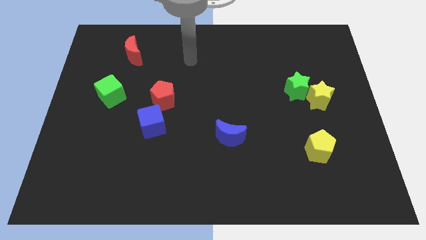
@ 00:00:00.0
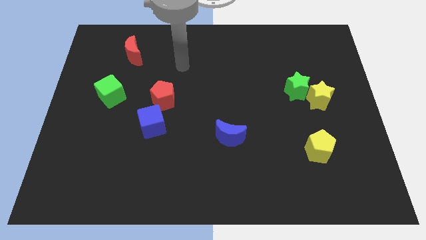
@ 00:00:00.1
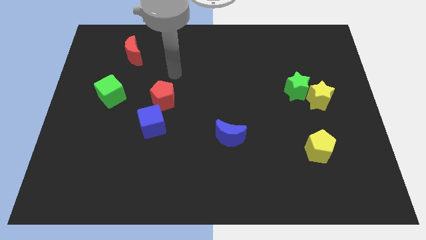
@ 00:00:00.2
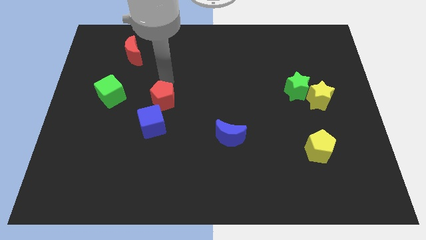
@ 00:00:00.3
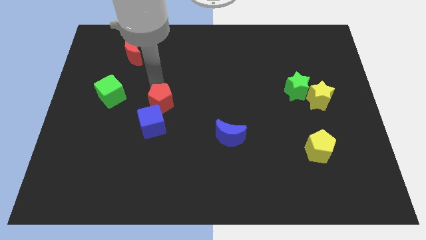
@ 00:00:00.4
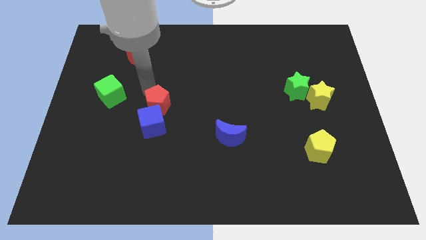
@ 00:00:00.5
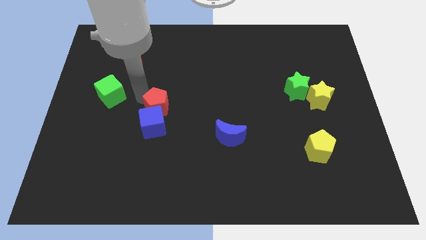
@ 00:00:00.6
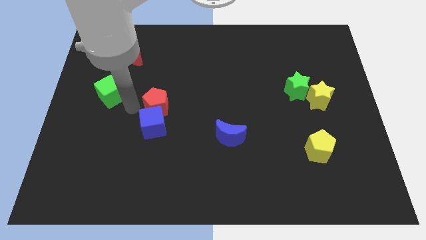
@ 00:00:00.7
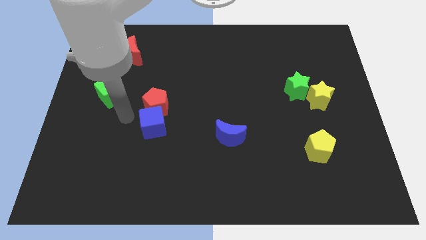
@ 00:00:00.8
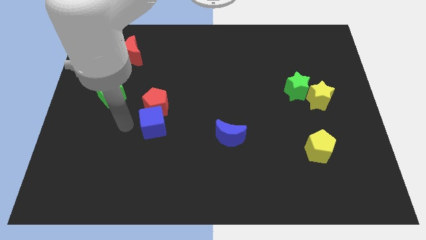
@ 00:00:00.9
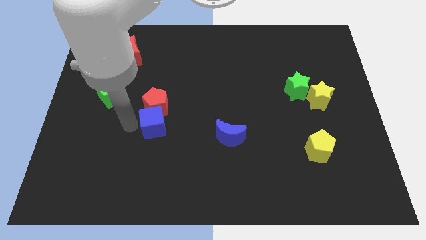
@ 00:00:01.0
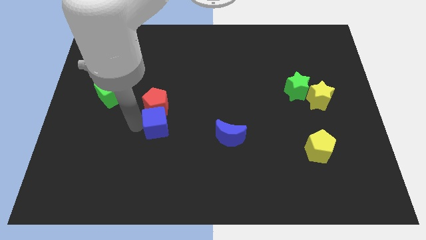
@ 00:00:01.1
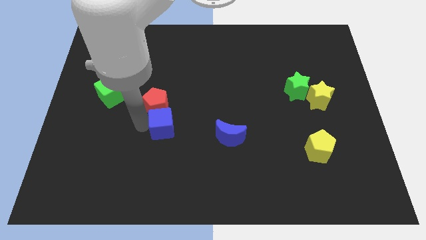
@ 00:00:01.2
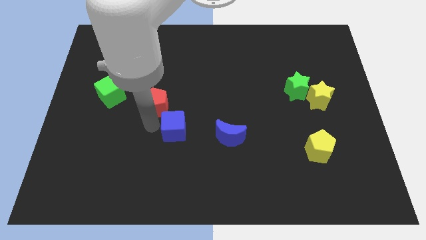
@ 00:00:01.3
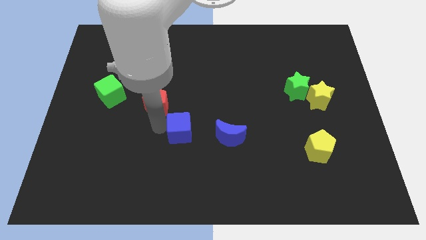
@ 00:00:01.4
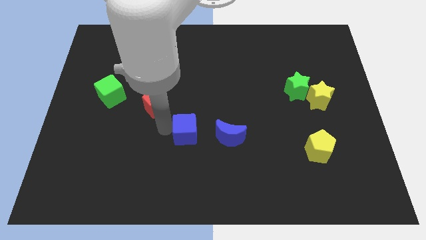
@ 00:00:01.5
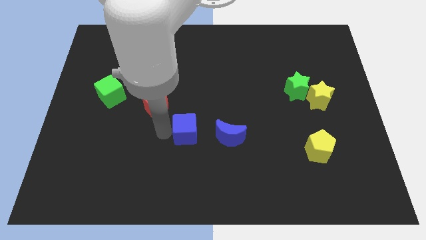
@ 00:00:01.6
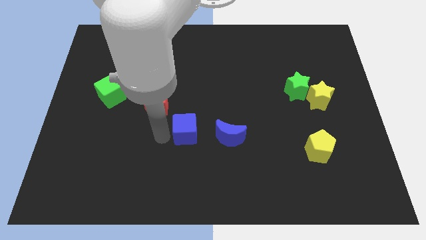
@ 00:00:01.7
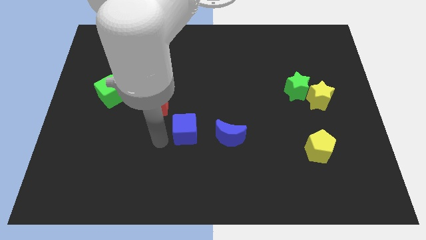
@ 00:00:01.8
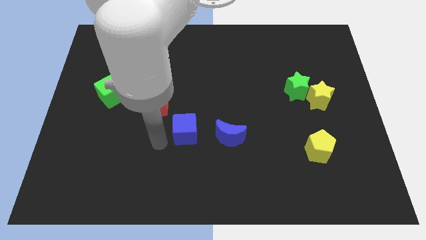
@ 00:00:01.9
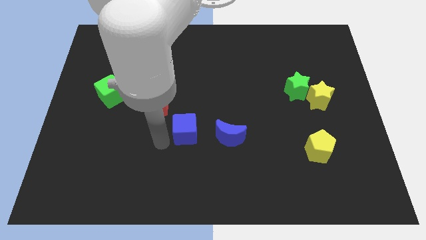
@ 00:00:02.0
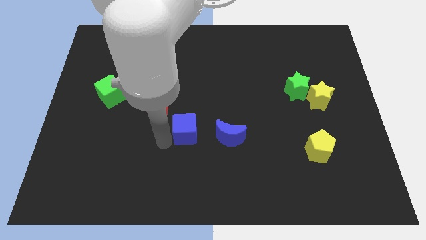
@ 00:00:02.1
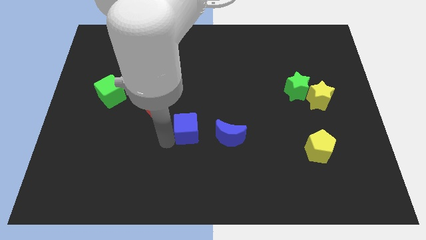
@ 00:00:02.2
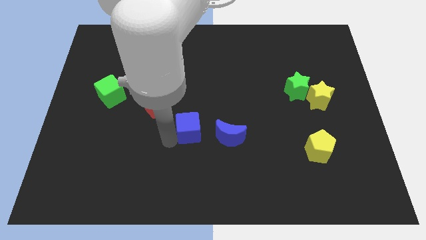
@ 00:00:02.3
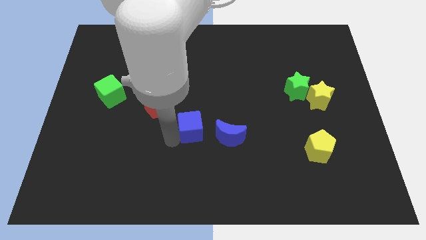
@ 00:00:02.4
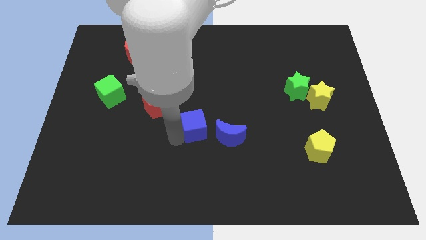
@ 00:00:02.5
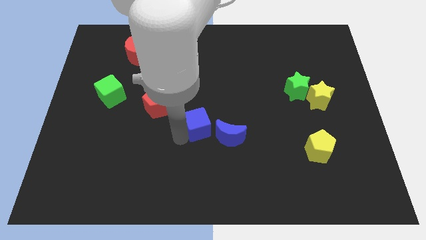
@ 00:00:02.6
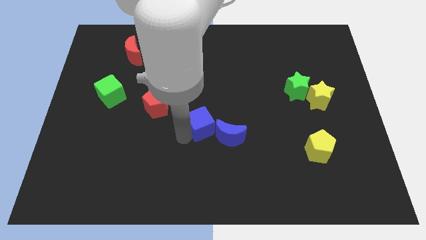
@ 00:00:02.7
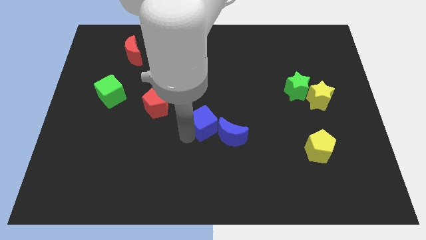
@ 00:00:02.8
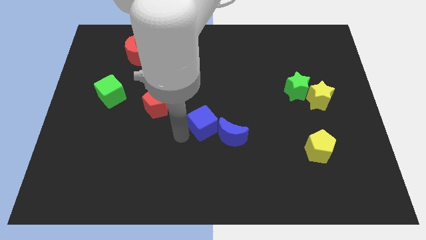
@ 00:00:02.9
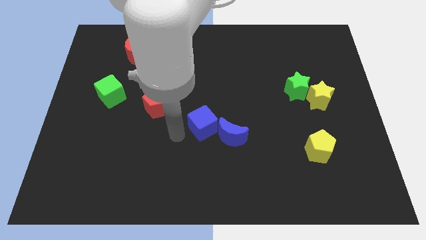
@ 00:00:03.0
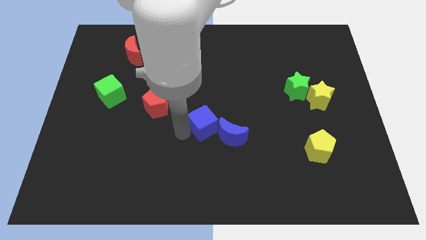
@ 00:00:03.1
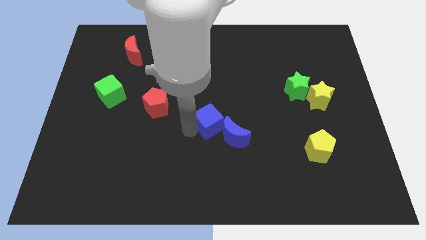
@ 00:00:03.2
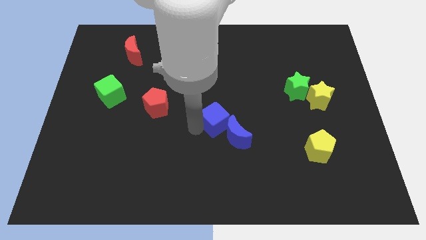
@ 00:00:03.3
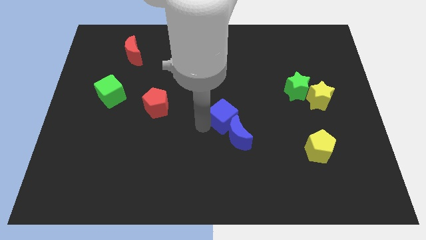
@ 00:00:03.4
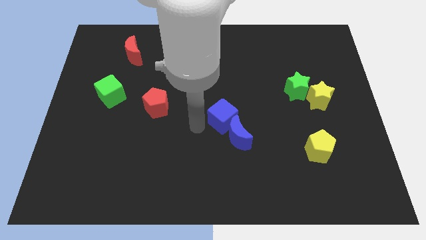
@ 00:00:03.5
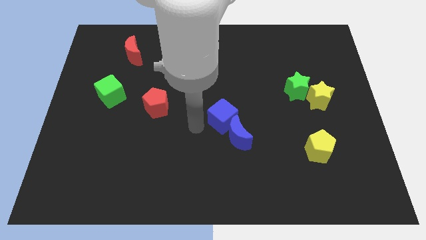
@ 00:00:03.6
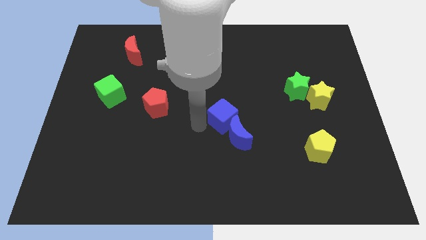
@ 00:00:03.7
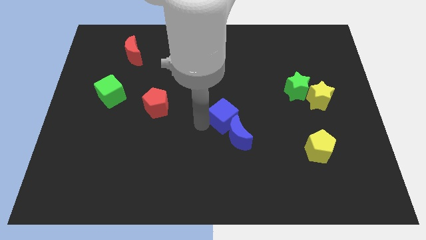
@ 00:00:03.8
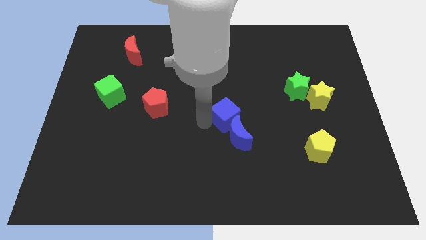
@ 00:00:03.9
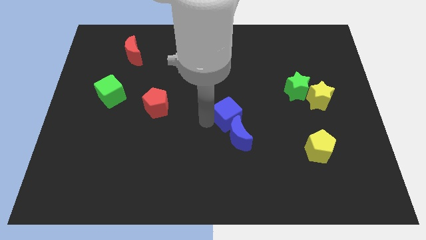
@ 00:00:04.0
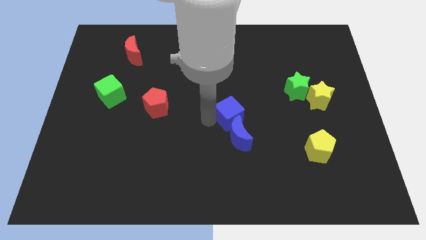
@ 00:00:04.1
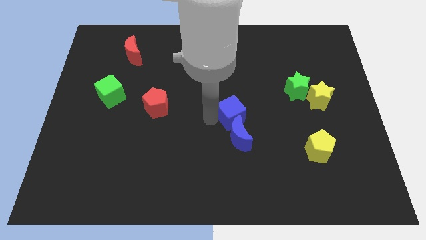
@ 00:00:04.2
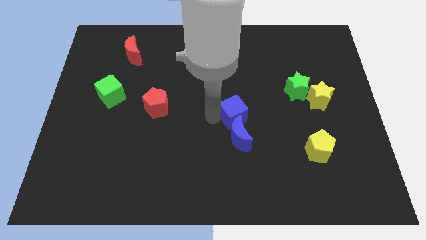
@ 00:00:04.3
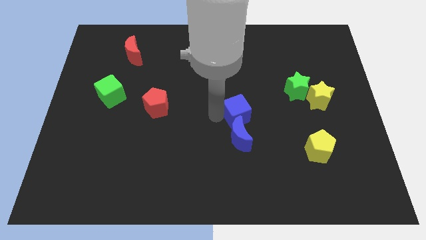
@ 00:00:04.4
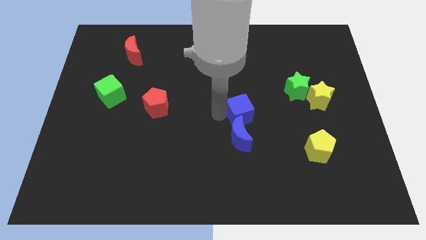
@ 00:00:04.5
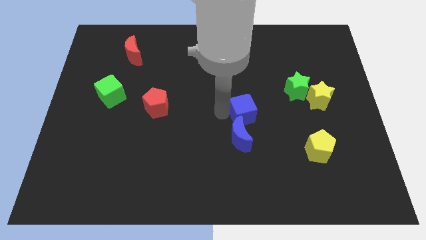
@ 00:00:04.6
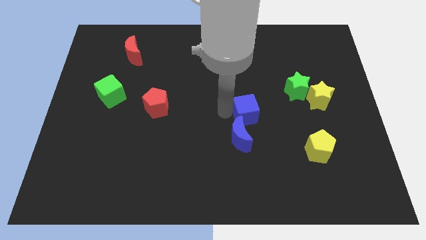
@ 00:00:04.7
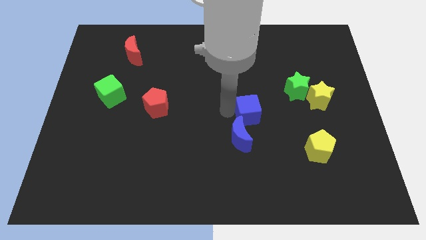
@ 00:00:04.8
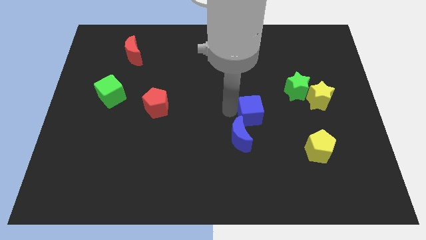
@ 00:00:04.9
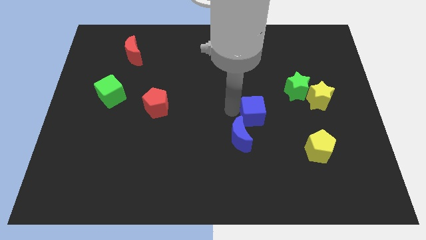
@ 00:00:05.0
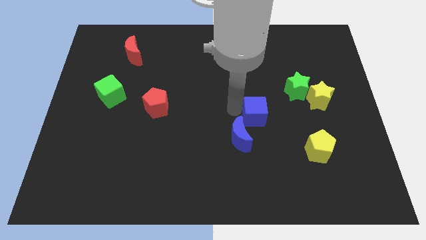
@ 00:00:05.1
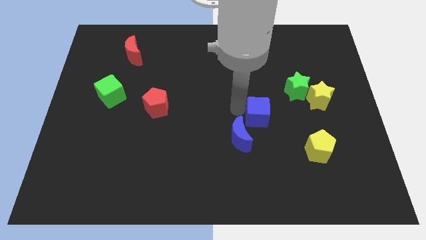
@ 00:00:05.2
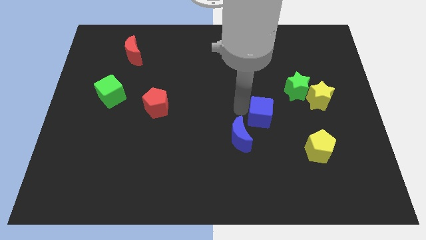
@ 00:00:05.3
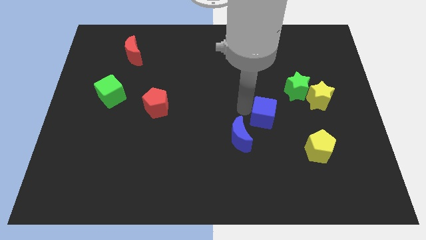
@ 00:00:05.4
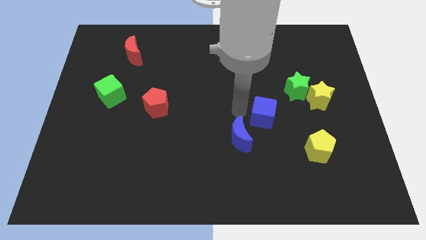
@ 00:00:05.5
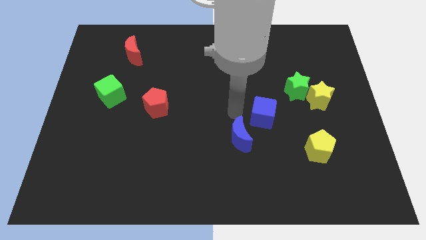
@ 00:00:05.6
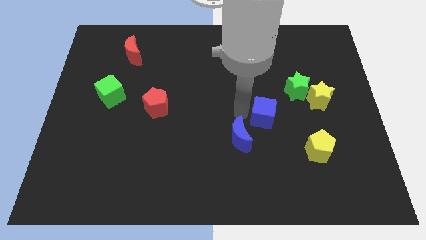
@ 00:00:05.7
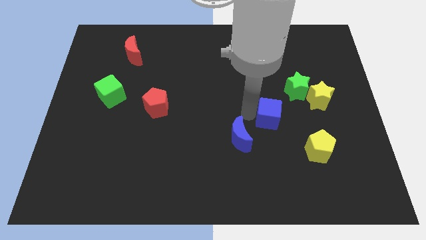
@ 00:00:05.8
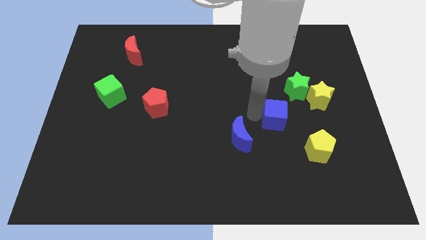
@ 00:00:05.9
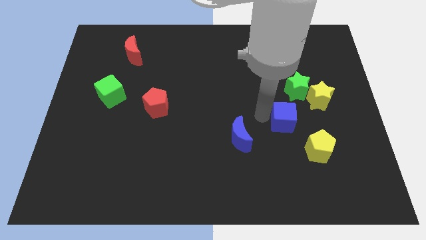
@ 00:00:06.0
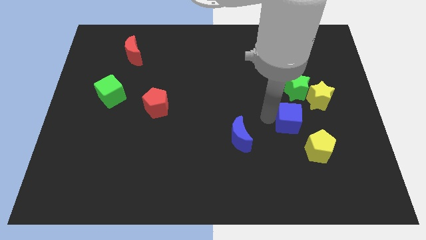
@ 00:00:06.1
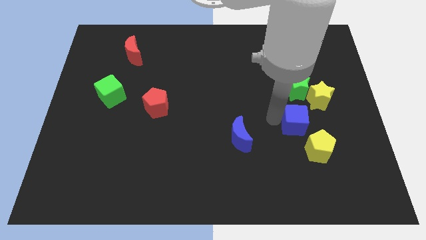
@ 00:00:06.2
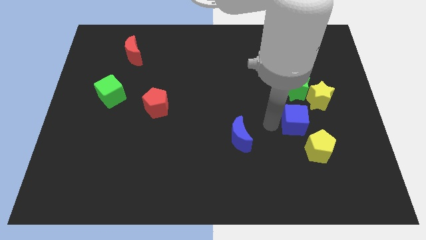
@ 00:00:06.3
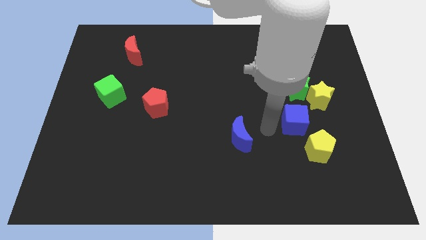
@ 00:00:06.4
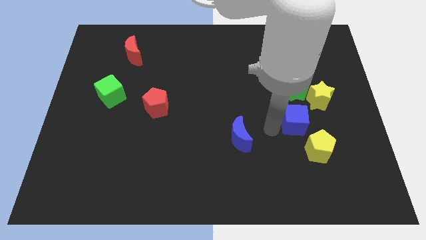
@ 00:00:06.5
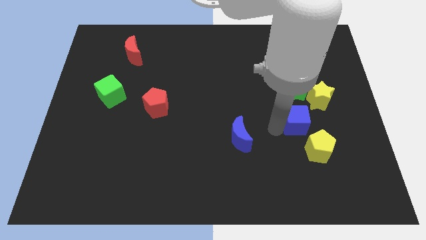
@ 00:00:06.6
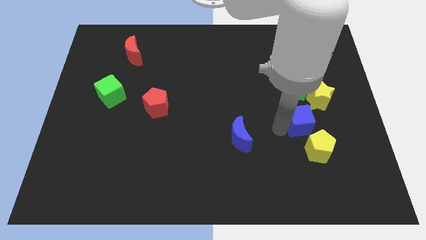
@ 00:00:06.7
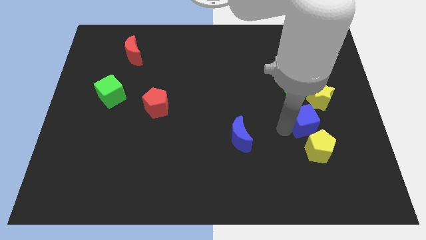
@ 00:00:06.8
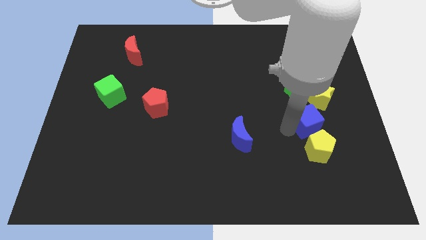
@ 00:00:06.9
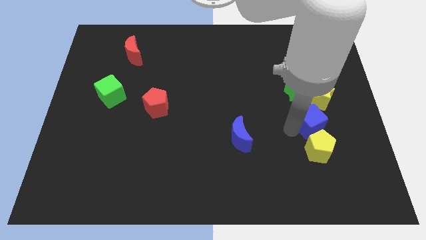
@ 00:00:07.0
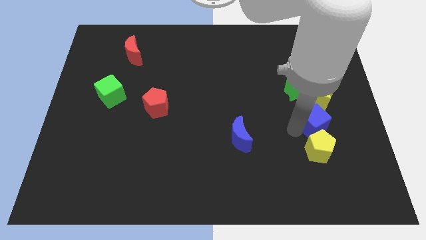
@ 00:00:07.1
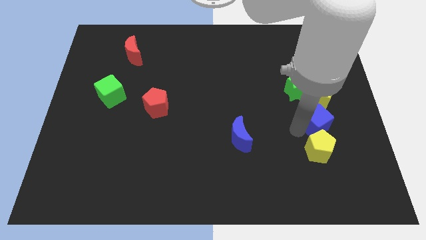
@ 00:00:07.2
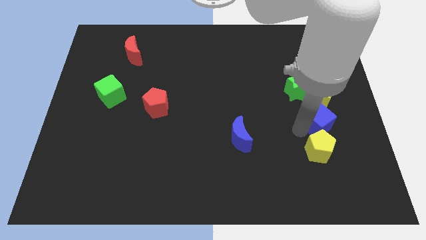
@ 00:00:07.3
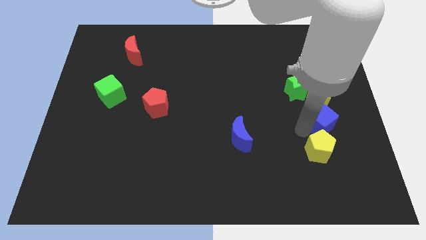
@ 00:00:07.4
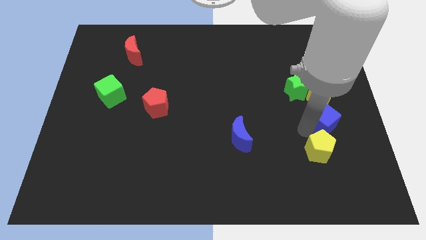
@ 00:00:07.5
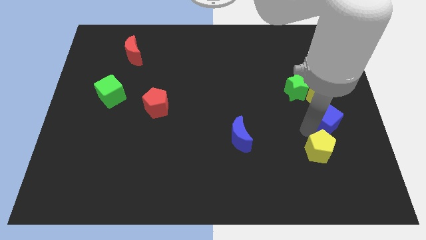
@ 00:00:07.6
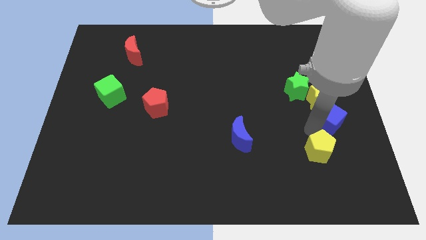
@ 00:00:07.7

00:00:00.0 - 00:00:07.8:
put the blue cube to the right side
